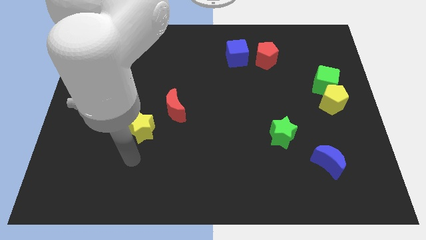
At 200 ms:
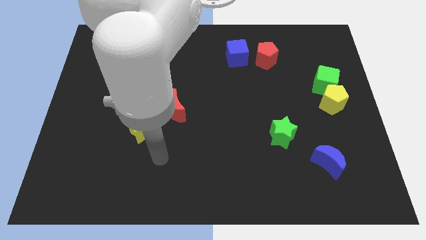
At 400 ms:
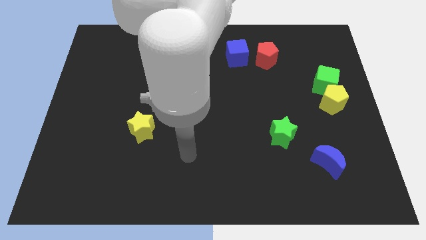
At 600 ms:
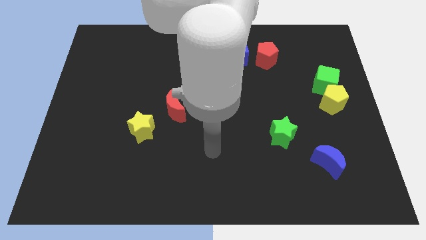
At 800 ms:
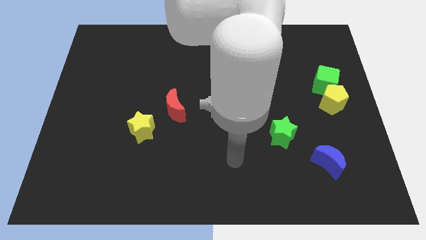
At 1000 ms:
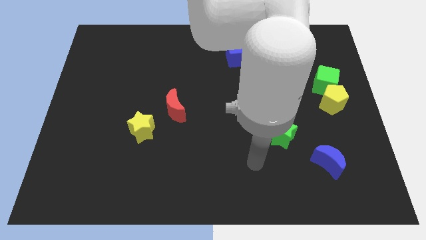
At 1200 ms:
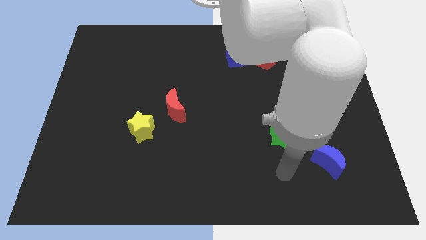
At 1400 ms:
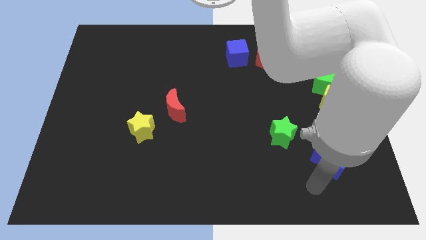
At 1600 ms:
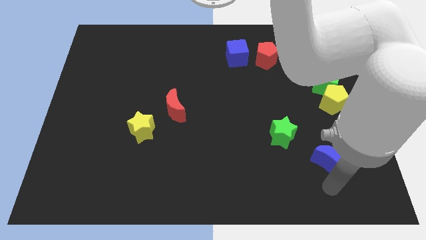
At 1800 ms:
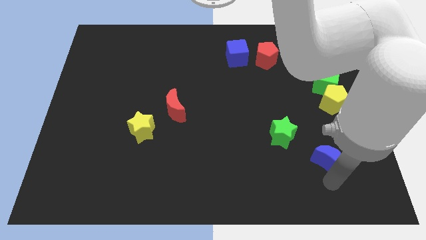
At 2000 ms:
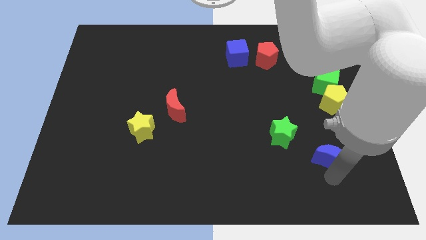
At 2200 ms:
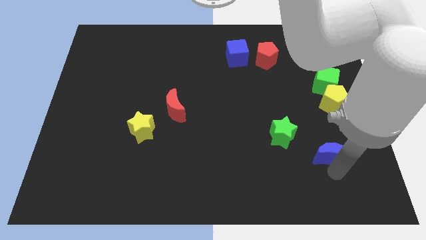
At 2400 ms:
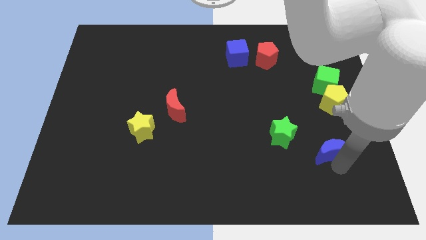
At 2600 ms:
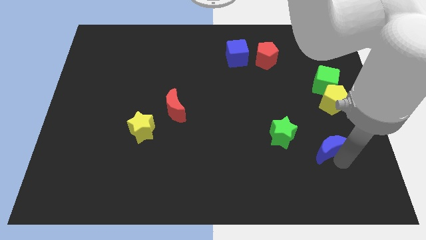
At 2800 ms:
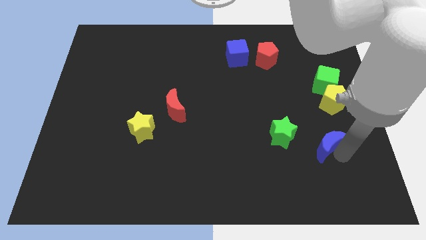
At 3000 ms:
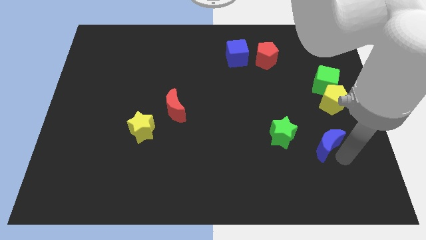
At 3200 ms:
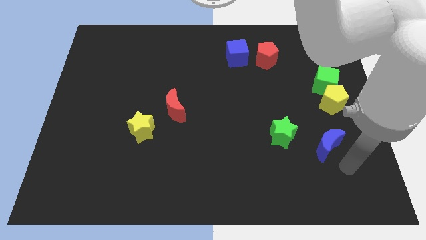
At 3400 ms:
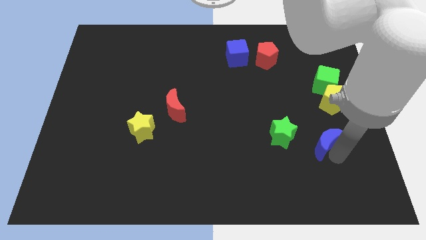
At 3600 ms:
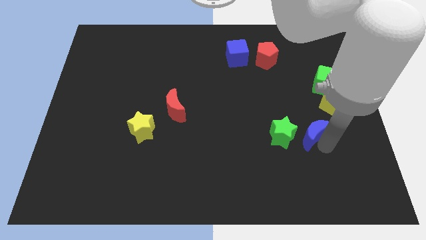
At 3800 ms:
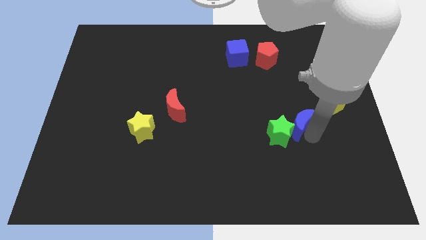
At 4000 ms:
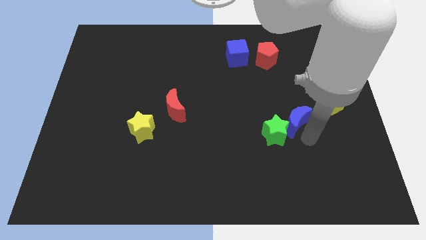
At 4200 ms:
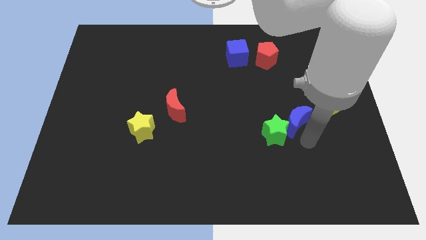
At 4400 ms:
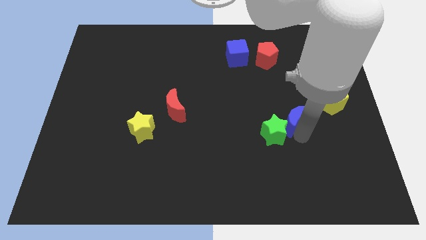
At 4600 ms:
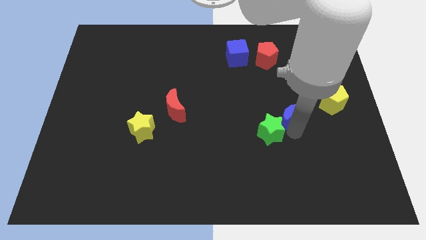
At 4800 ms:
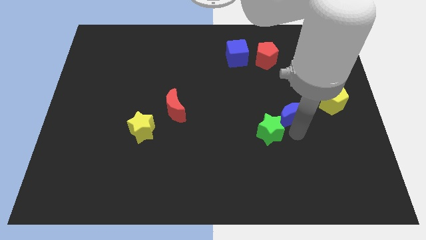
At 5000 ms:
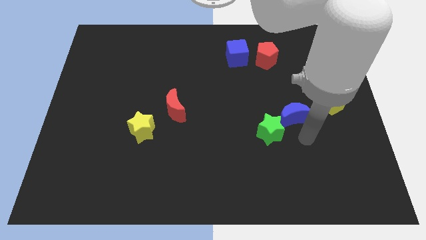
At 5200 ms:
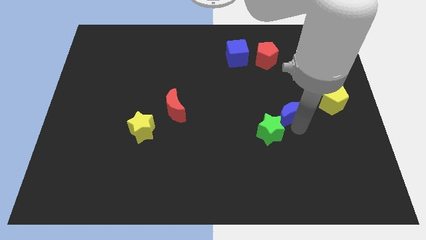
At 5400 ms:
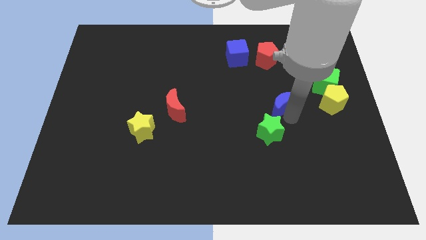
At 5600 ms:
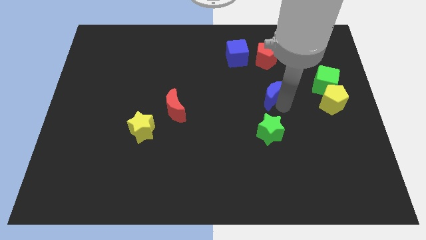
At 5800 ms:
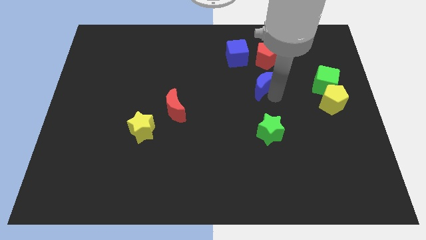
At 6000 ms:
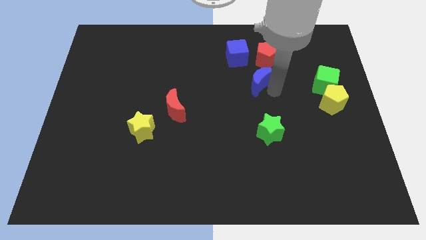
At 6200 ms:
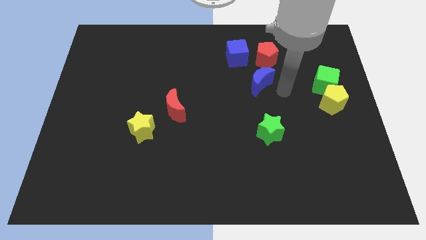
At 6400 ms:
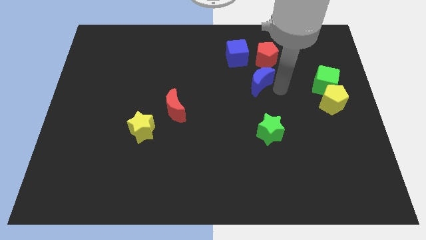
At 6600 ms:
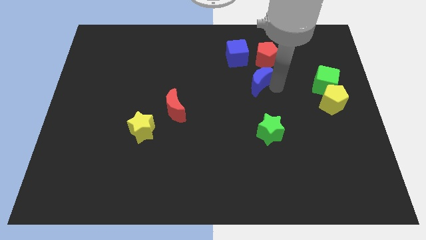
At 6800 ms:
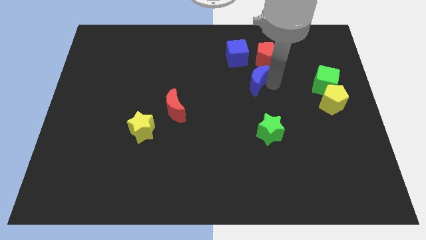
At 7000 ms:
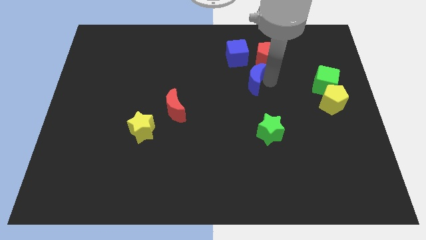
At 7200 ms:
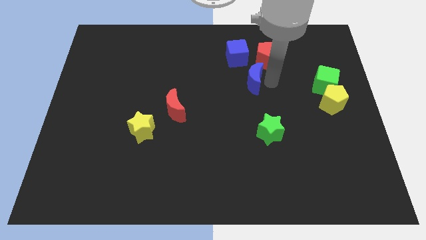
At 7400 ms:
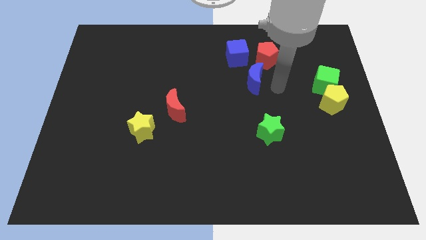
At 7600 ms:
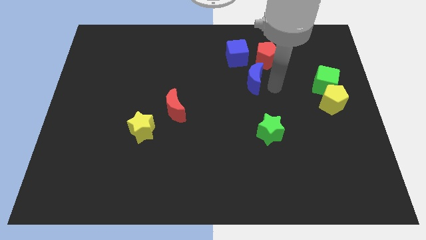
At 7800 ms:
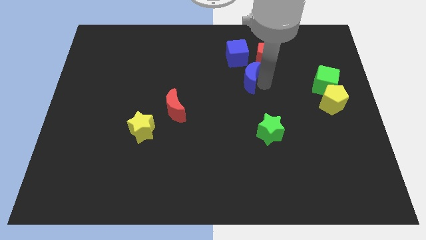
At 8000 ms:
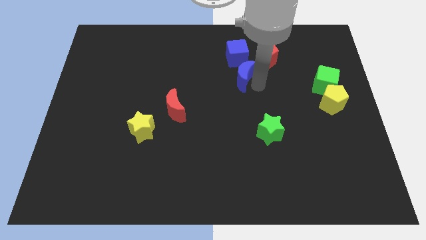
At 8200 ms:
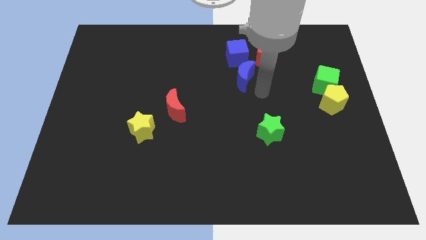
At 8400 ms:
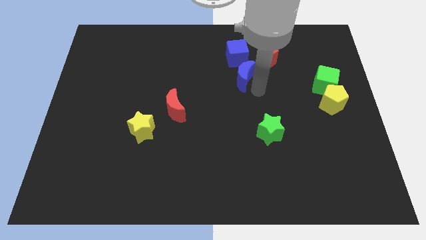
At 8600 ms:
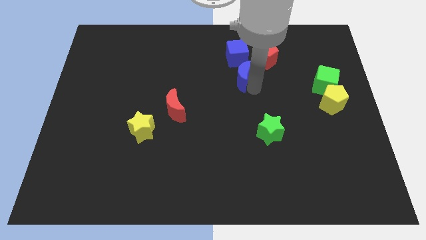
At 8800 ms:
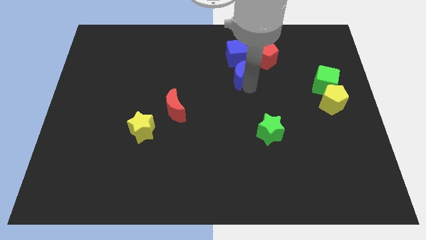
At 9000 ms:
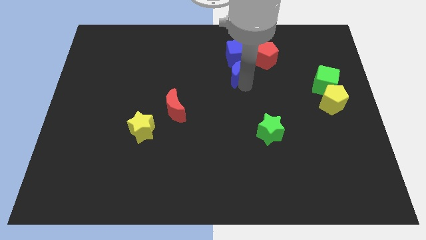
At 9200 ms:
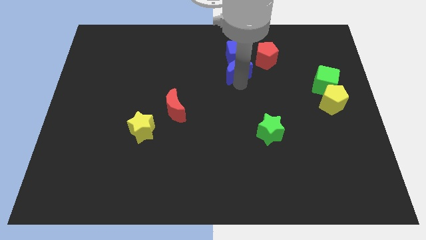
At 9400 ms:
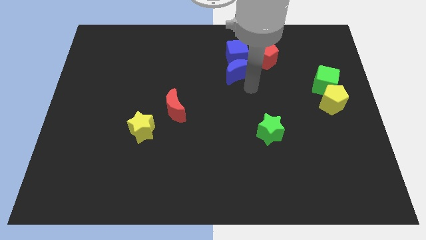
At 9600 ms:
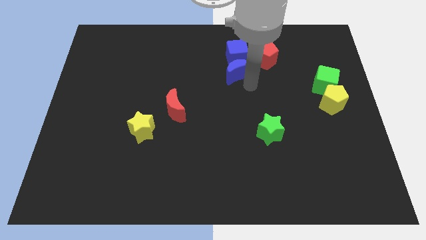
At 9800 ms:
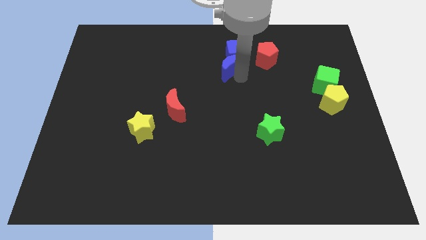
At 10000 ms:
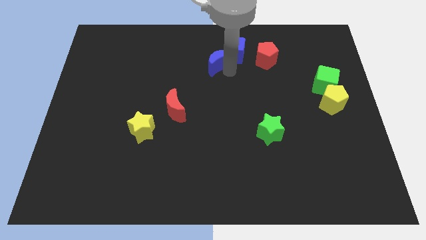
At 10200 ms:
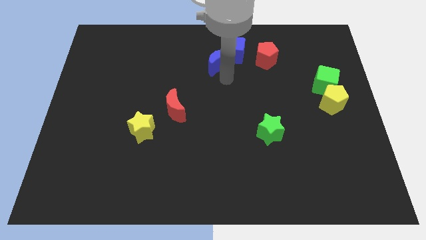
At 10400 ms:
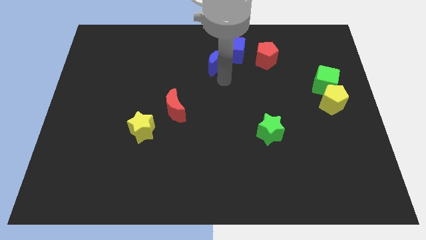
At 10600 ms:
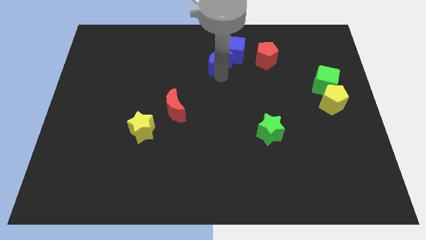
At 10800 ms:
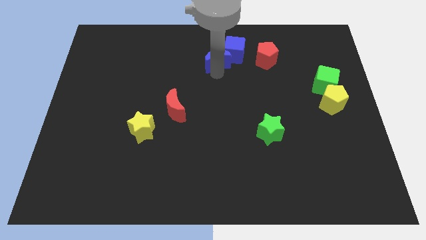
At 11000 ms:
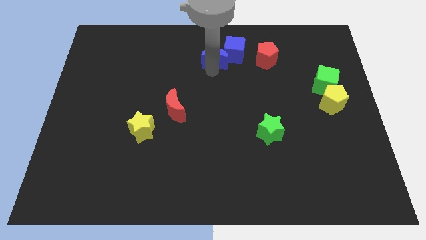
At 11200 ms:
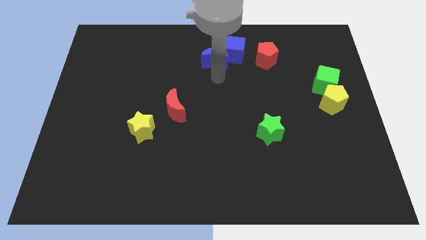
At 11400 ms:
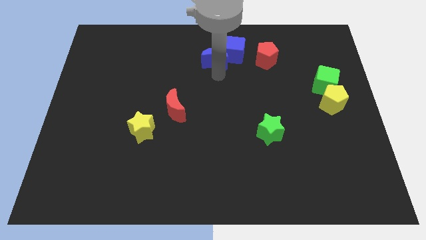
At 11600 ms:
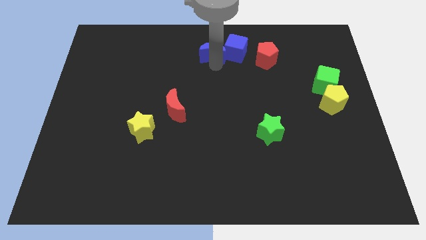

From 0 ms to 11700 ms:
put the blue moon to the towards your base
